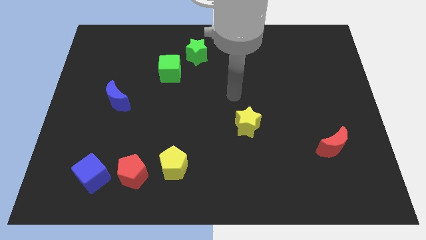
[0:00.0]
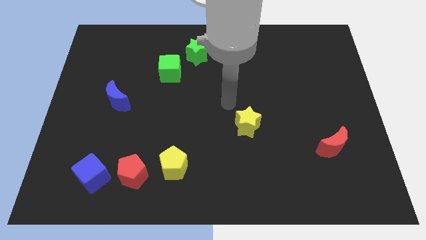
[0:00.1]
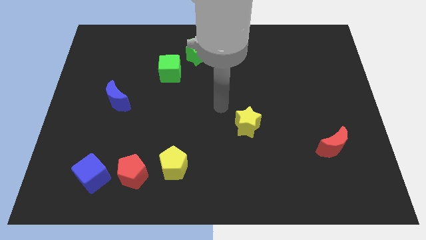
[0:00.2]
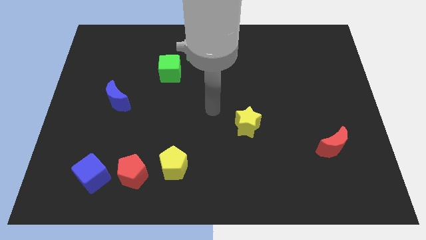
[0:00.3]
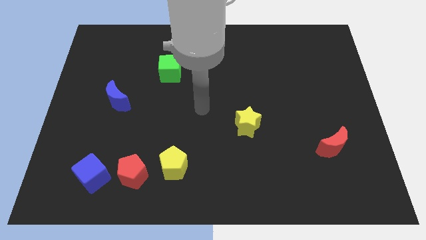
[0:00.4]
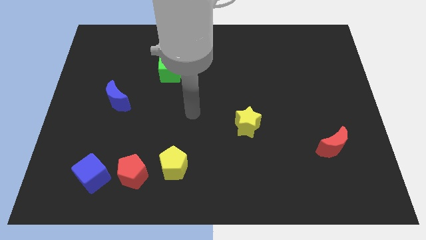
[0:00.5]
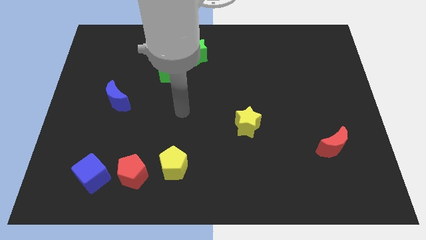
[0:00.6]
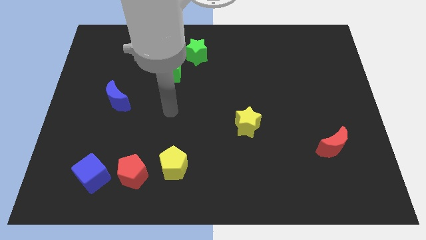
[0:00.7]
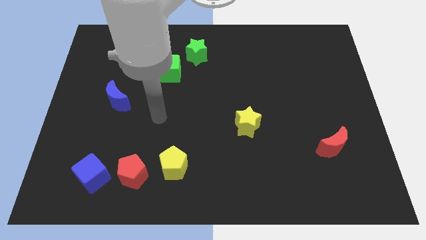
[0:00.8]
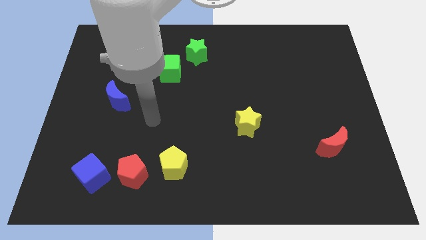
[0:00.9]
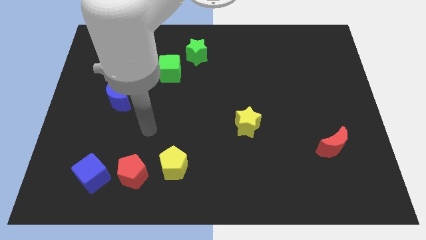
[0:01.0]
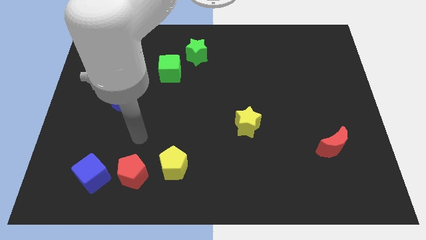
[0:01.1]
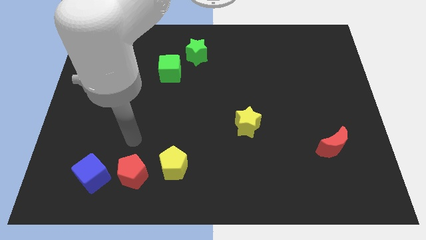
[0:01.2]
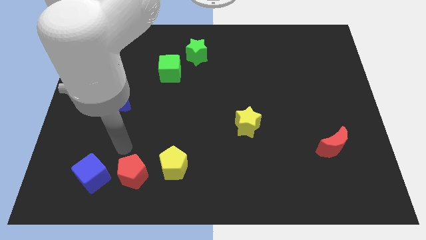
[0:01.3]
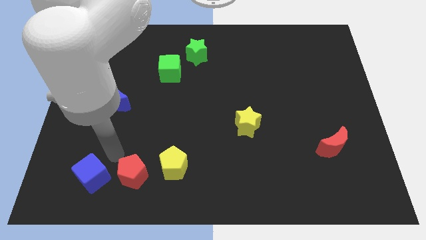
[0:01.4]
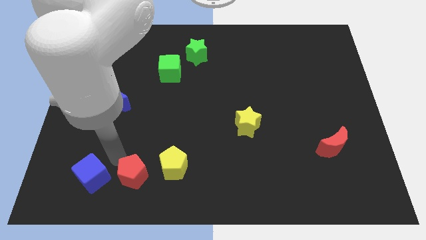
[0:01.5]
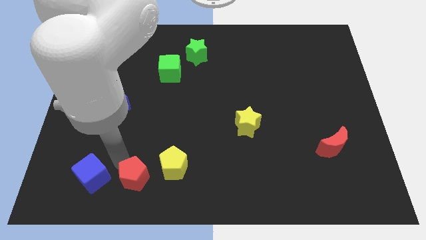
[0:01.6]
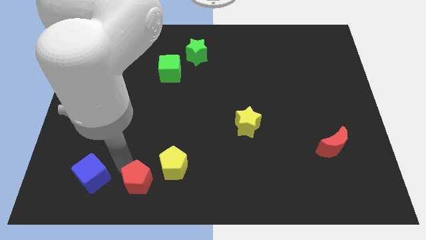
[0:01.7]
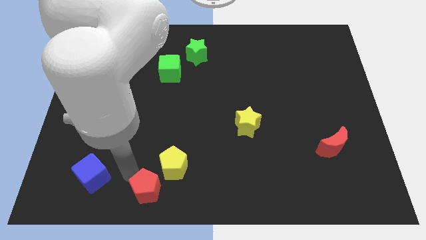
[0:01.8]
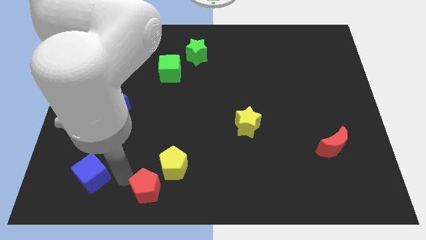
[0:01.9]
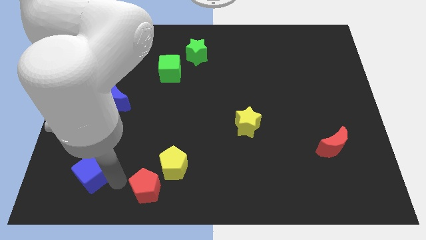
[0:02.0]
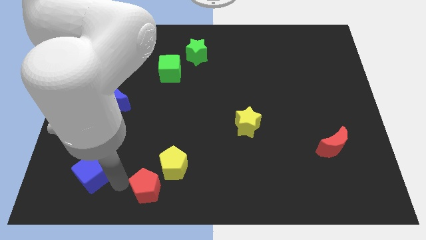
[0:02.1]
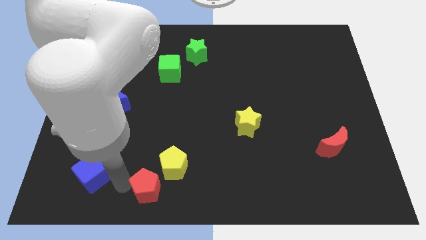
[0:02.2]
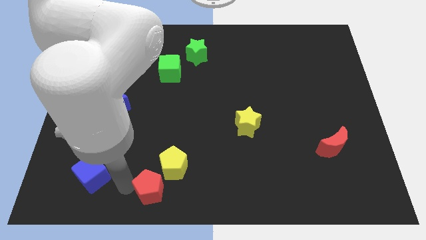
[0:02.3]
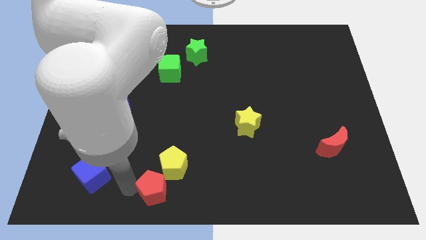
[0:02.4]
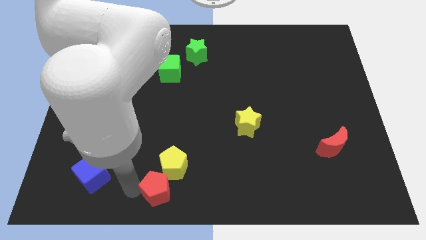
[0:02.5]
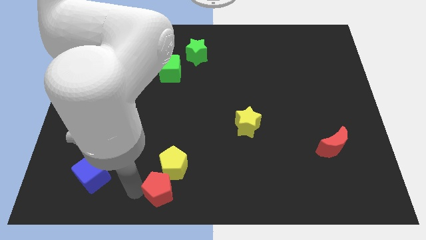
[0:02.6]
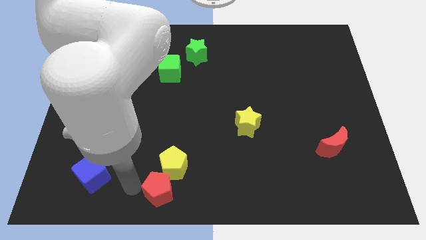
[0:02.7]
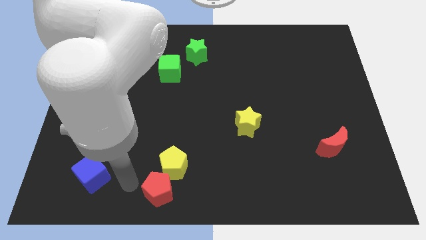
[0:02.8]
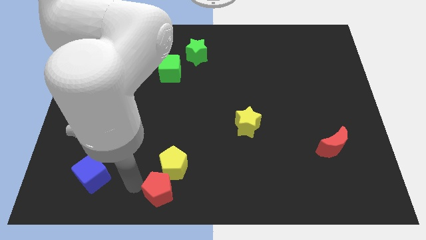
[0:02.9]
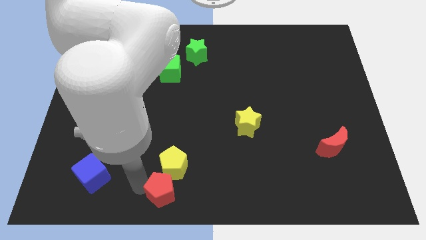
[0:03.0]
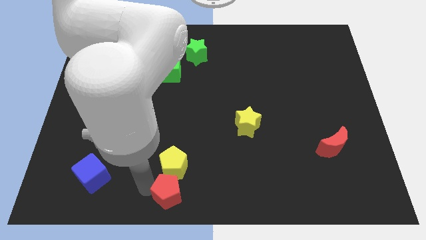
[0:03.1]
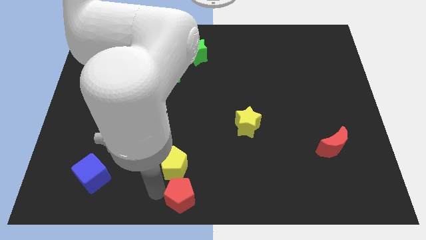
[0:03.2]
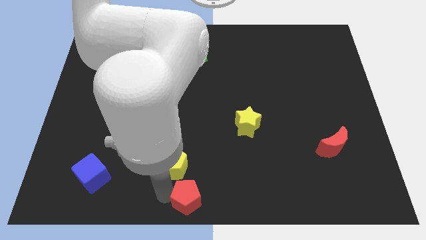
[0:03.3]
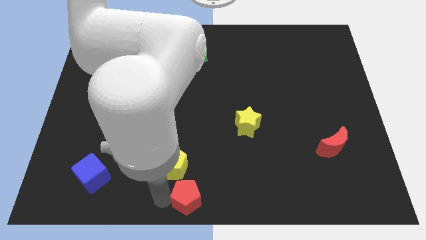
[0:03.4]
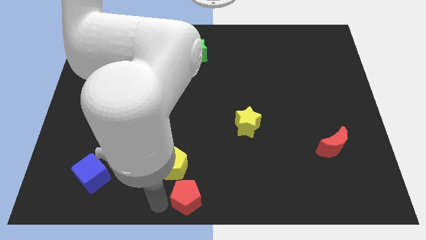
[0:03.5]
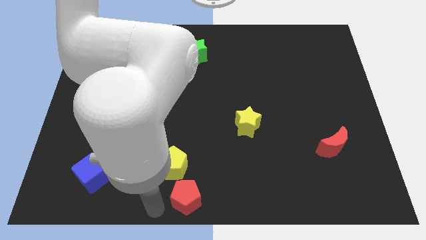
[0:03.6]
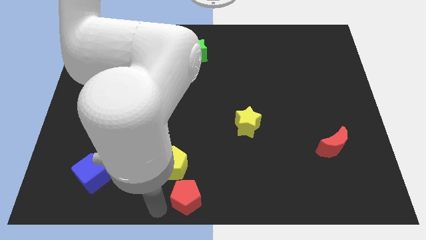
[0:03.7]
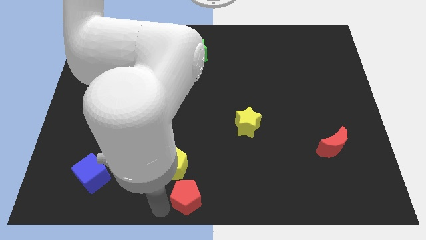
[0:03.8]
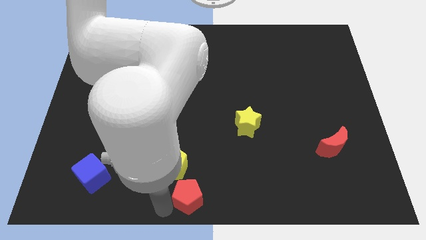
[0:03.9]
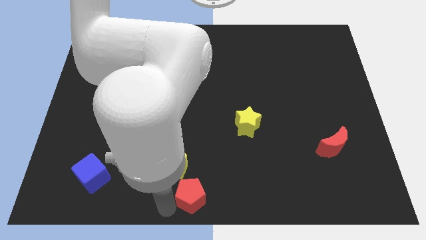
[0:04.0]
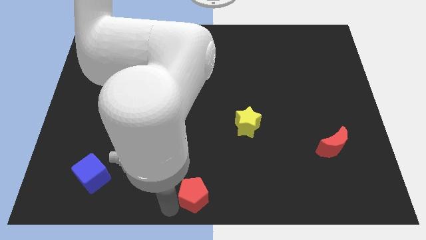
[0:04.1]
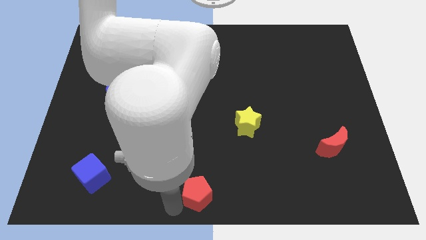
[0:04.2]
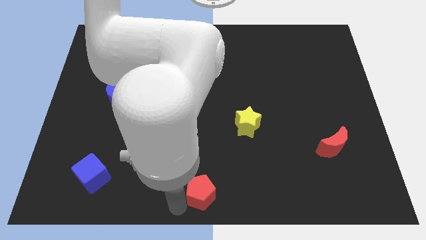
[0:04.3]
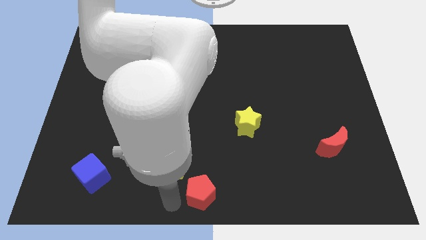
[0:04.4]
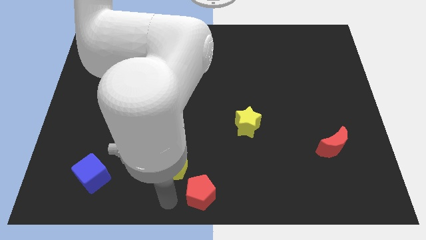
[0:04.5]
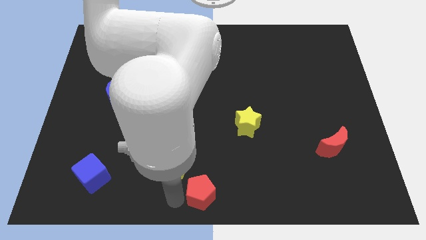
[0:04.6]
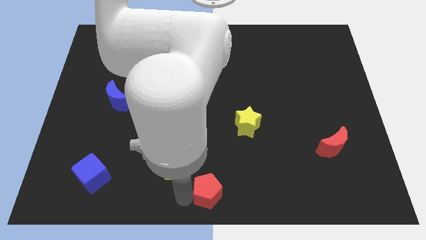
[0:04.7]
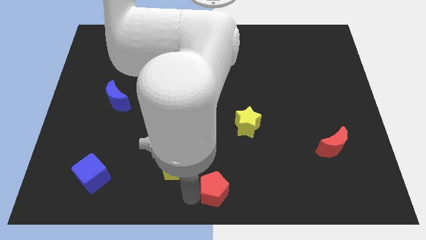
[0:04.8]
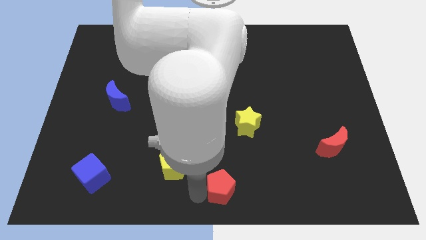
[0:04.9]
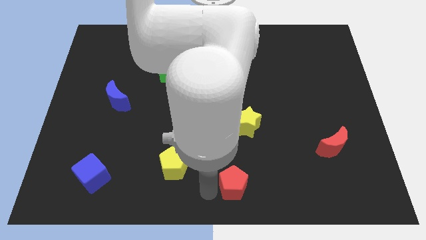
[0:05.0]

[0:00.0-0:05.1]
push the red pentagon right

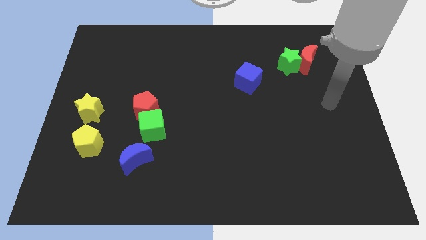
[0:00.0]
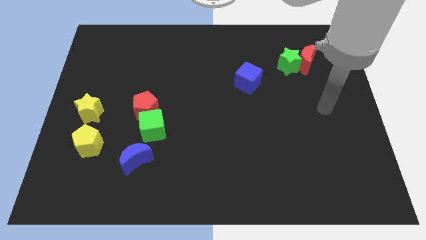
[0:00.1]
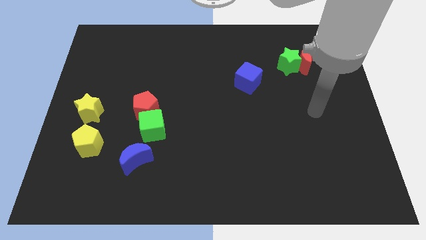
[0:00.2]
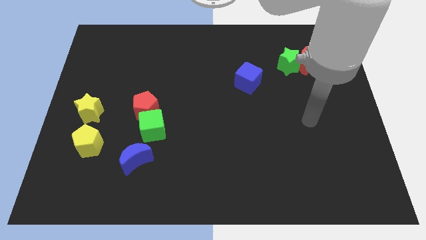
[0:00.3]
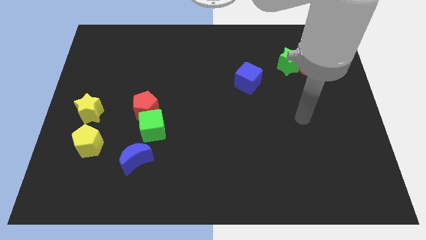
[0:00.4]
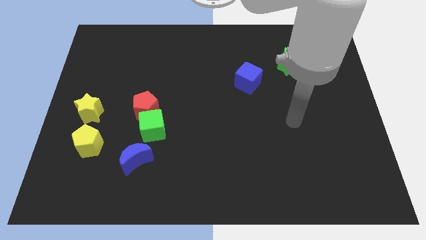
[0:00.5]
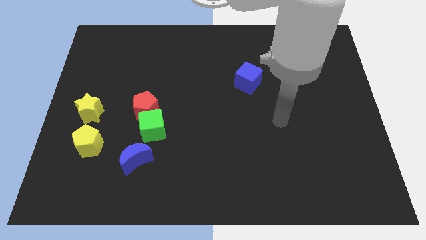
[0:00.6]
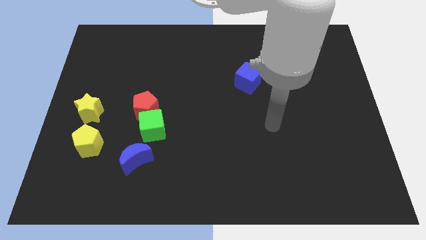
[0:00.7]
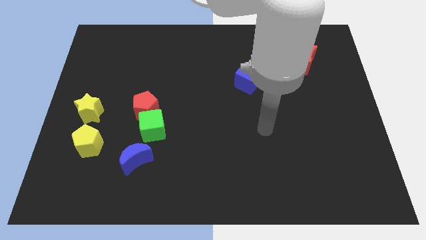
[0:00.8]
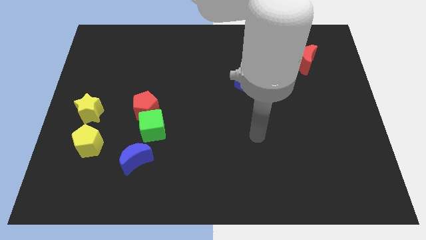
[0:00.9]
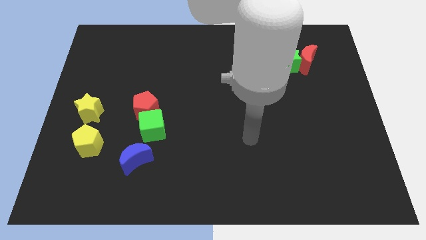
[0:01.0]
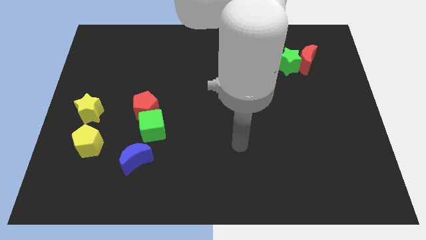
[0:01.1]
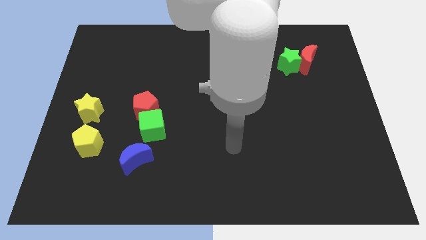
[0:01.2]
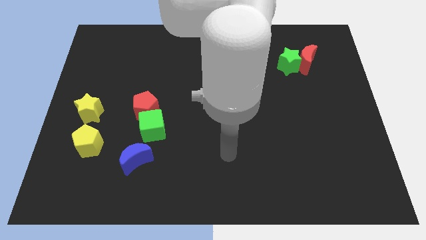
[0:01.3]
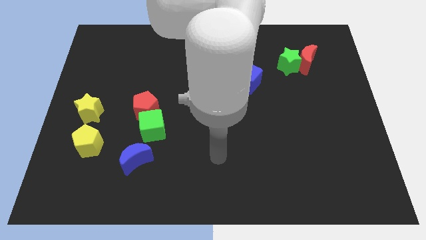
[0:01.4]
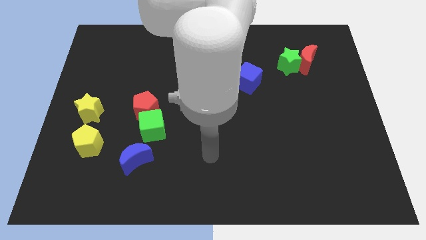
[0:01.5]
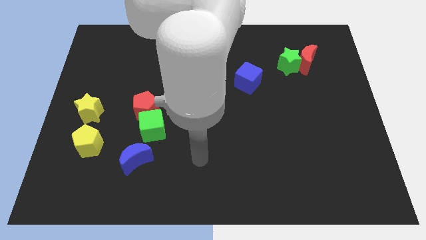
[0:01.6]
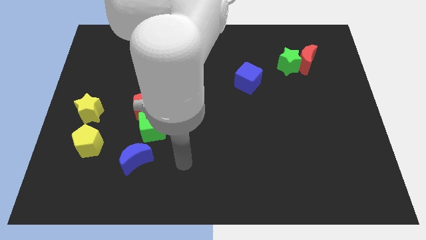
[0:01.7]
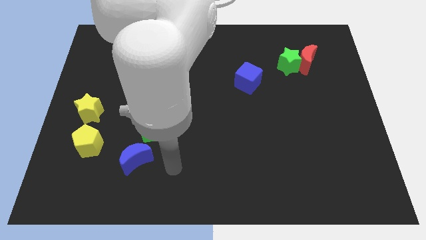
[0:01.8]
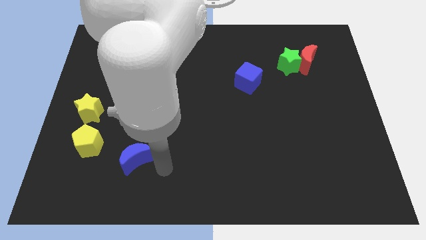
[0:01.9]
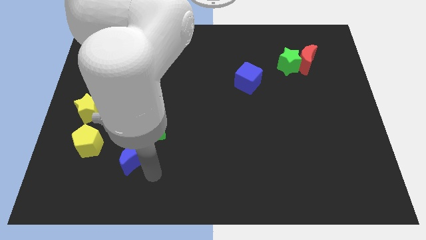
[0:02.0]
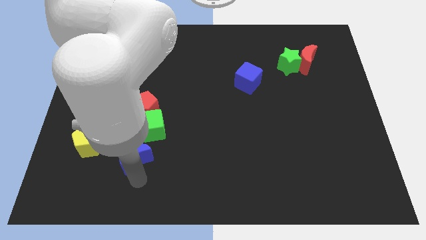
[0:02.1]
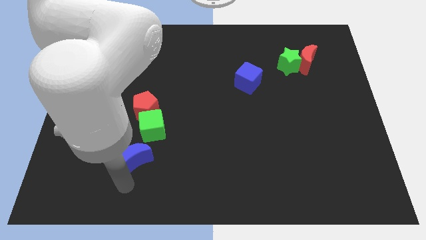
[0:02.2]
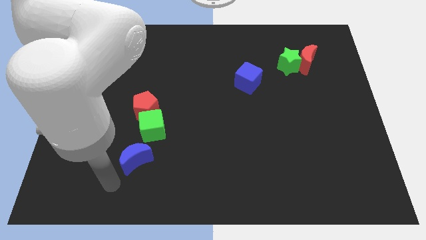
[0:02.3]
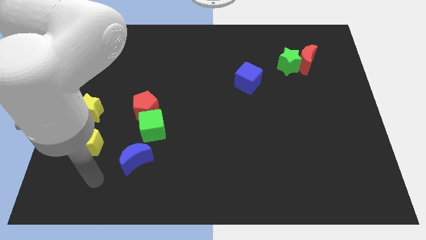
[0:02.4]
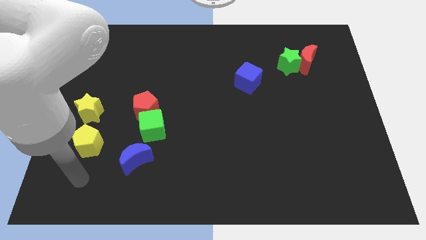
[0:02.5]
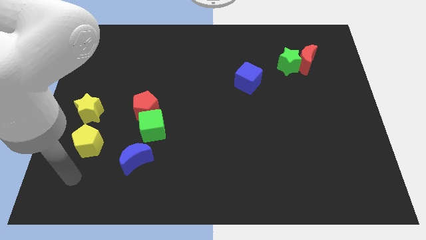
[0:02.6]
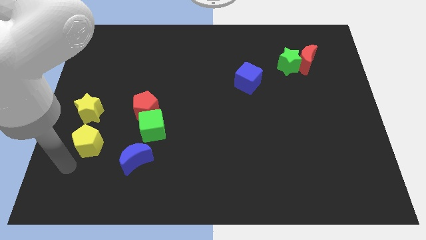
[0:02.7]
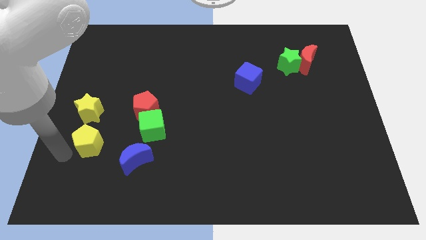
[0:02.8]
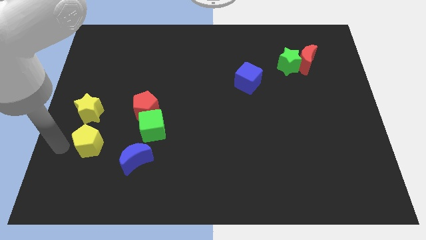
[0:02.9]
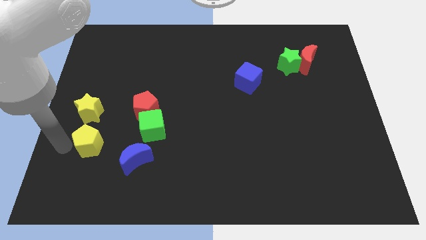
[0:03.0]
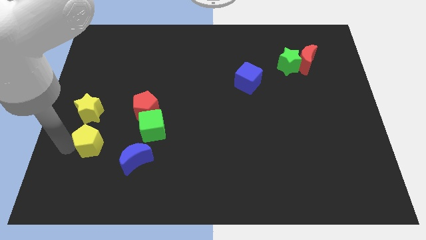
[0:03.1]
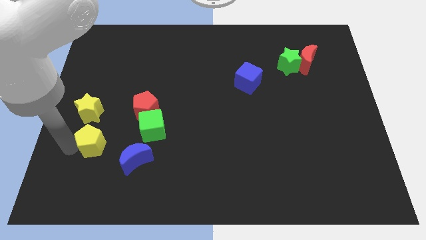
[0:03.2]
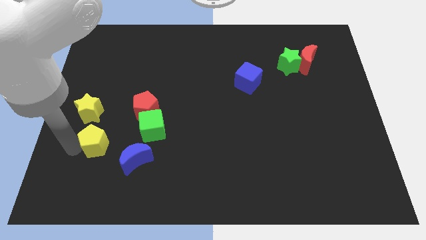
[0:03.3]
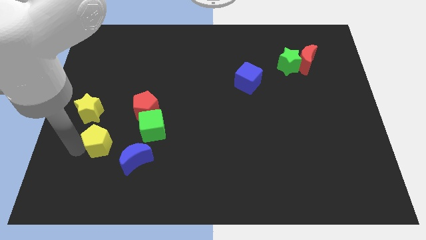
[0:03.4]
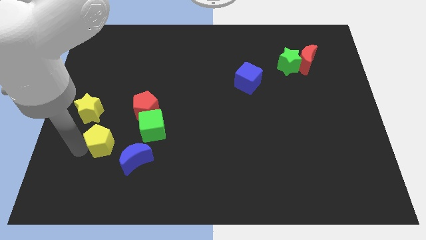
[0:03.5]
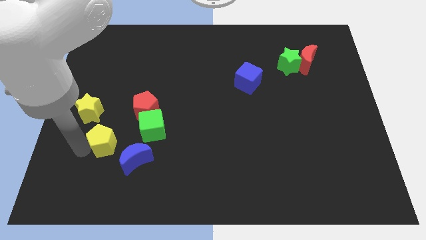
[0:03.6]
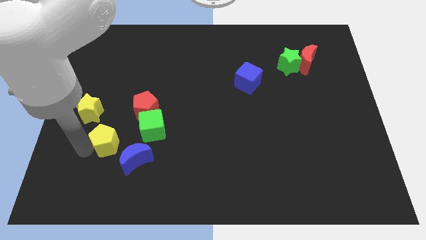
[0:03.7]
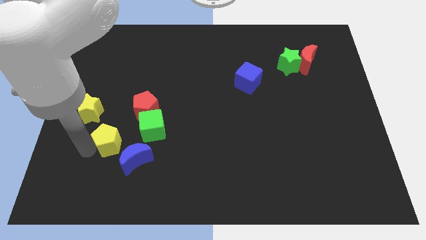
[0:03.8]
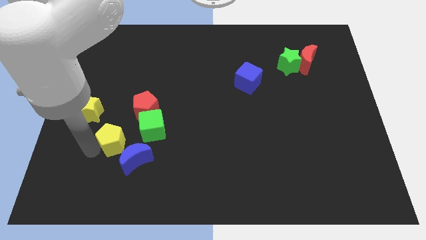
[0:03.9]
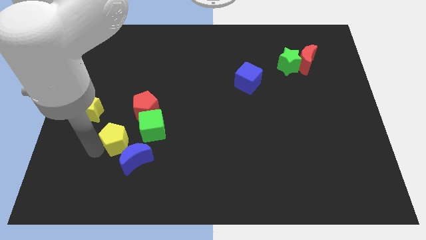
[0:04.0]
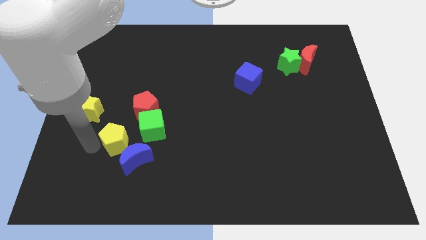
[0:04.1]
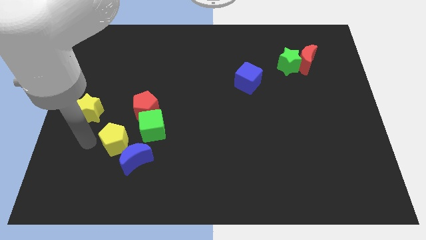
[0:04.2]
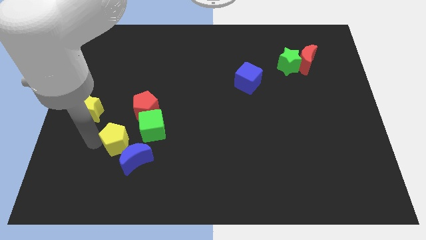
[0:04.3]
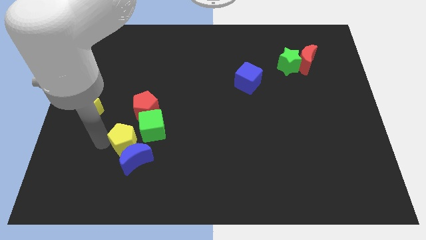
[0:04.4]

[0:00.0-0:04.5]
push the yellow pentagon a little to the right
